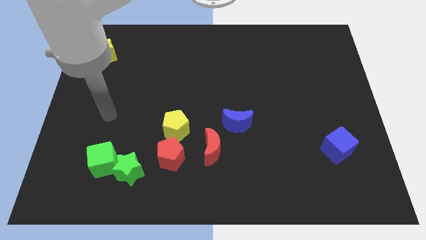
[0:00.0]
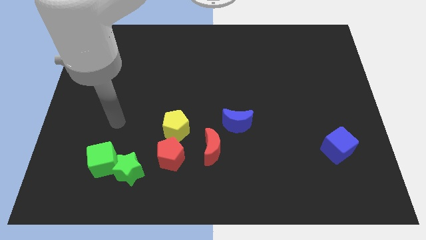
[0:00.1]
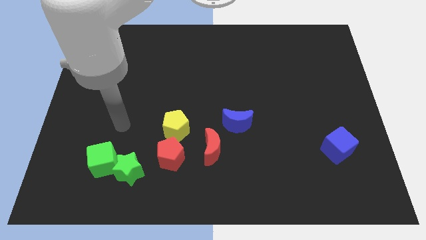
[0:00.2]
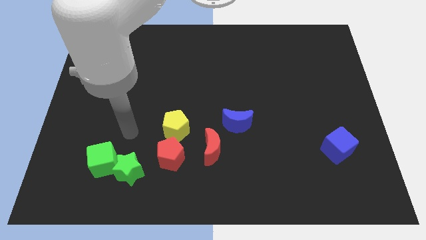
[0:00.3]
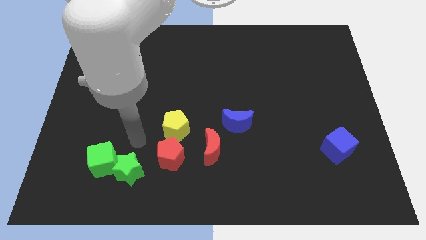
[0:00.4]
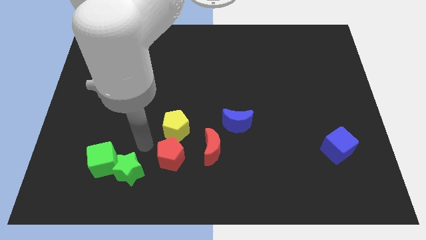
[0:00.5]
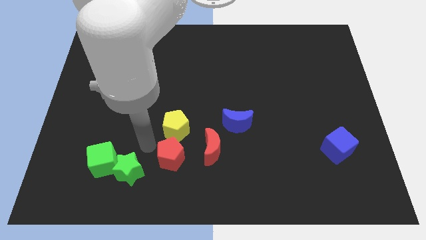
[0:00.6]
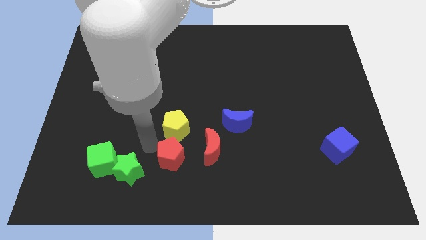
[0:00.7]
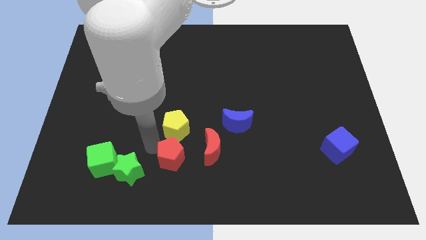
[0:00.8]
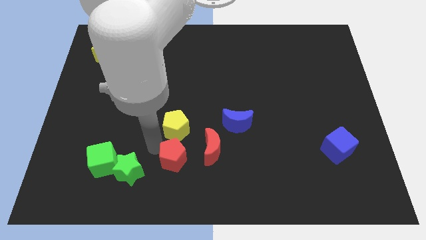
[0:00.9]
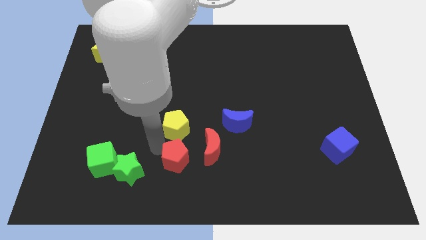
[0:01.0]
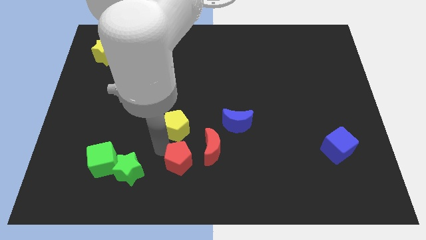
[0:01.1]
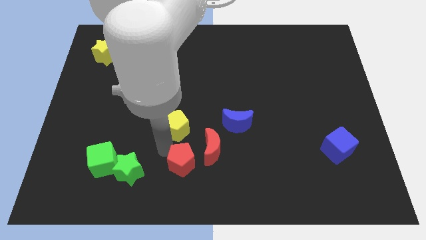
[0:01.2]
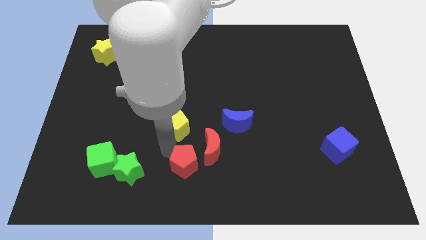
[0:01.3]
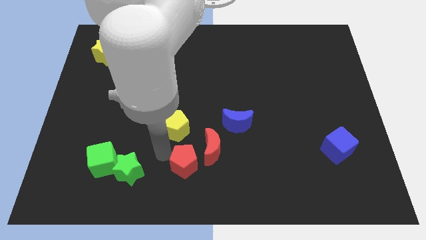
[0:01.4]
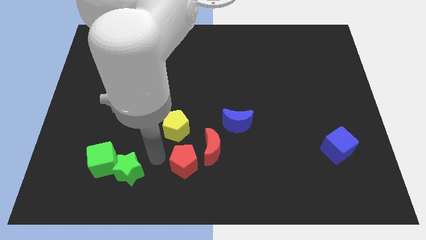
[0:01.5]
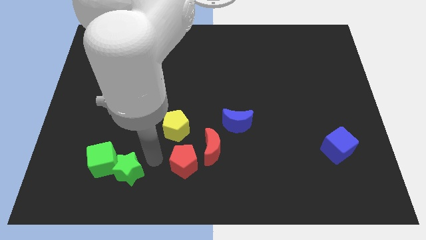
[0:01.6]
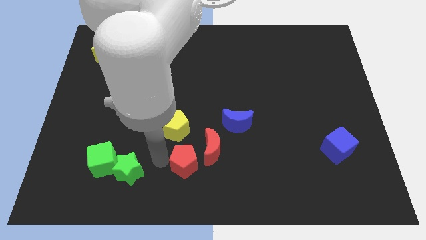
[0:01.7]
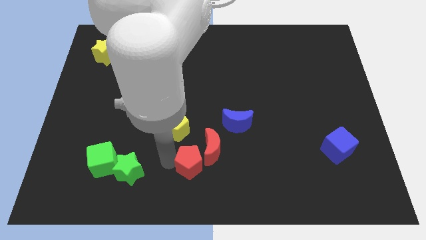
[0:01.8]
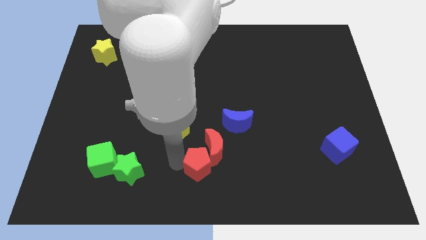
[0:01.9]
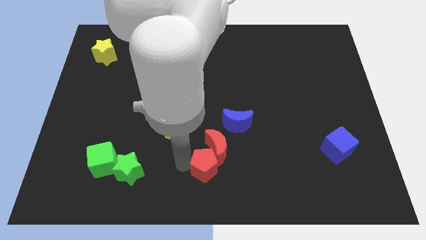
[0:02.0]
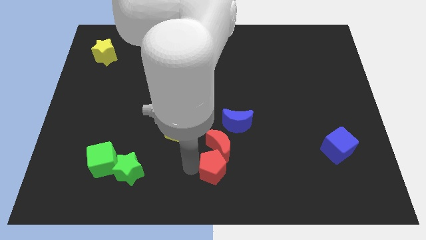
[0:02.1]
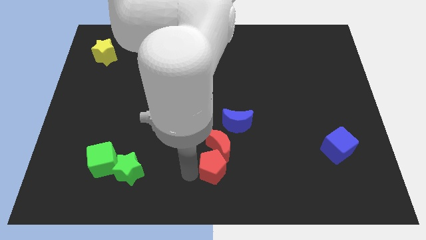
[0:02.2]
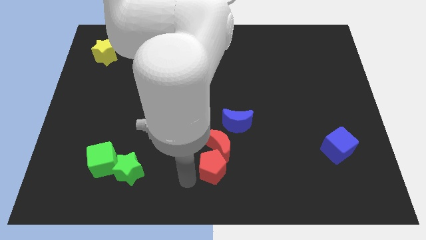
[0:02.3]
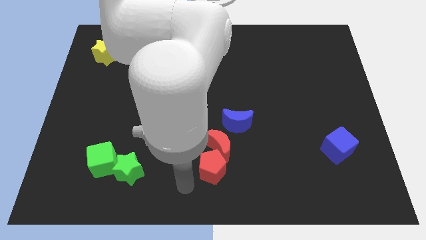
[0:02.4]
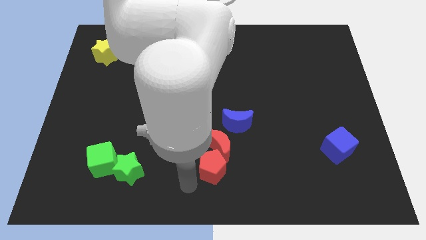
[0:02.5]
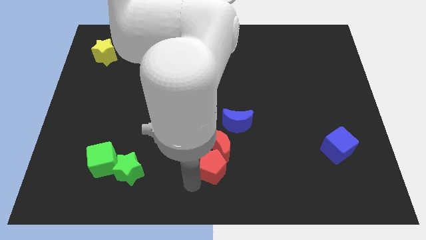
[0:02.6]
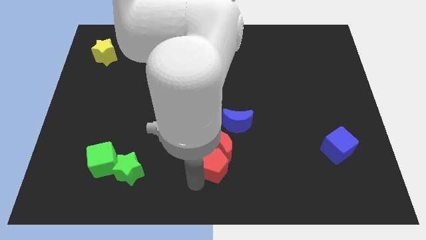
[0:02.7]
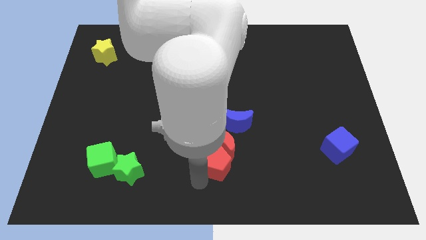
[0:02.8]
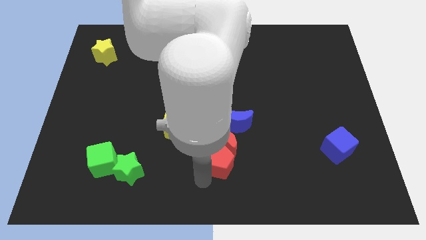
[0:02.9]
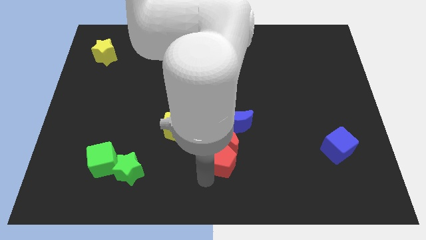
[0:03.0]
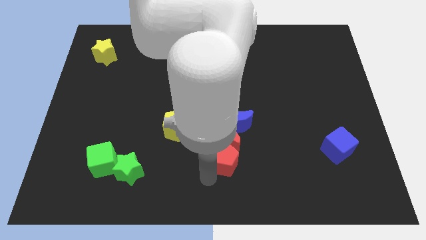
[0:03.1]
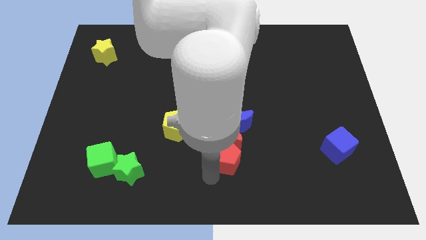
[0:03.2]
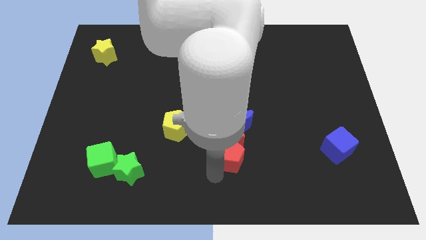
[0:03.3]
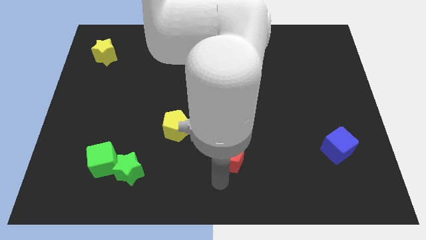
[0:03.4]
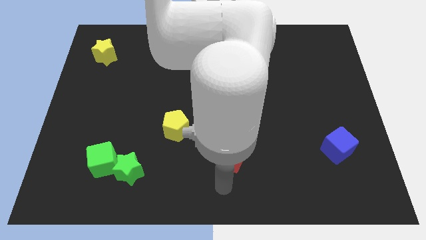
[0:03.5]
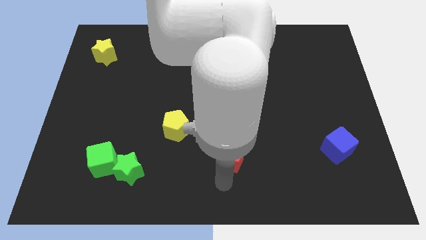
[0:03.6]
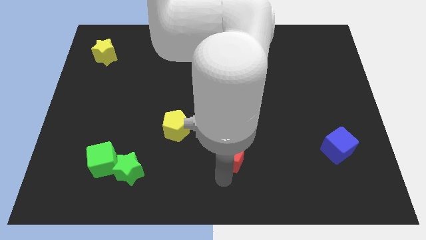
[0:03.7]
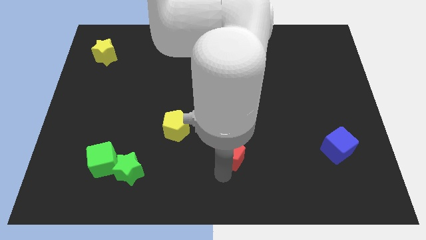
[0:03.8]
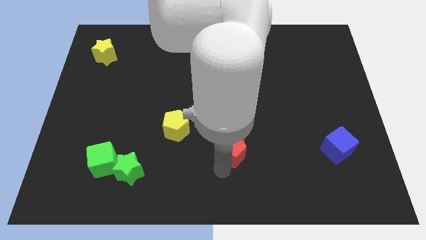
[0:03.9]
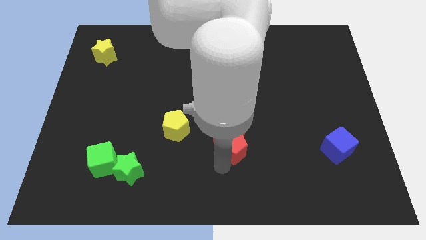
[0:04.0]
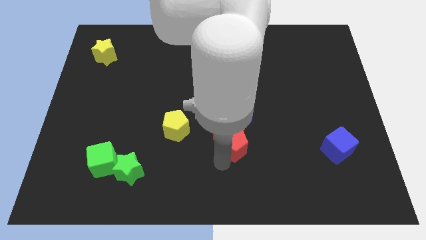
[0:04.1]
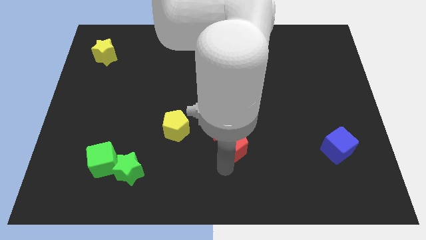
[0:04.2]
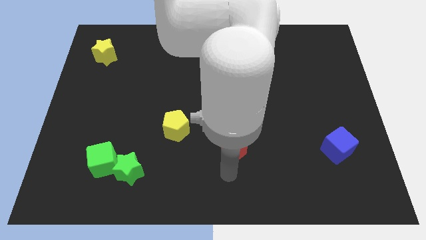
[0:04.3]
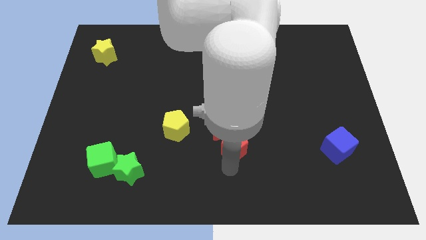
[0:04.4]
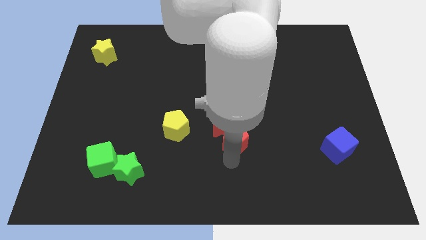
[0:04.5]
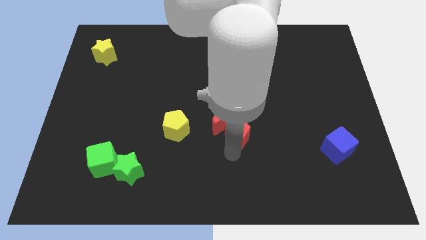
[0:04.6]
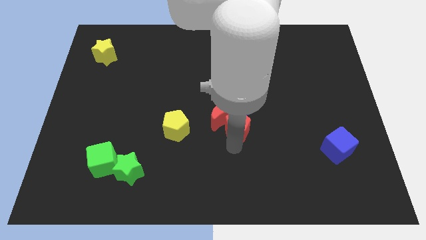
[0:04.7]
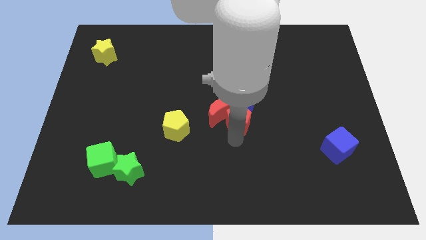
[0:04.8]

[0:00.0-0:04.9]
push the red pentagon towards the blue moon

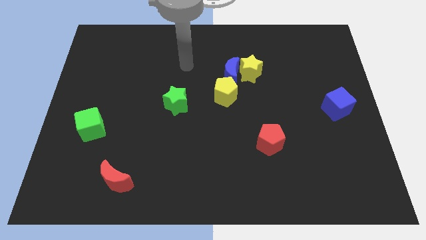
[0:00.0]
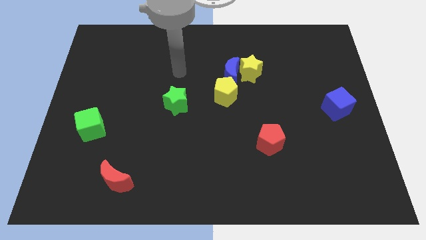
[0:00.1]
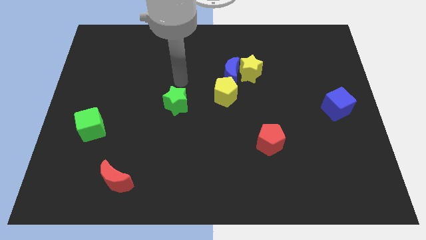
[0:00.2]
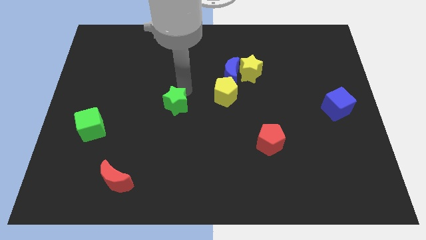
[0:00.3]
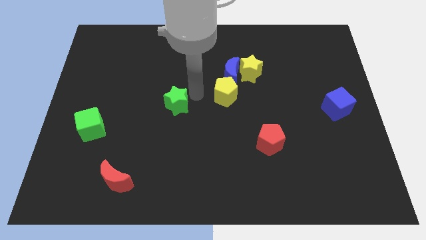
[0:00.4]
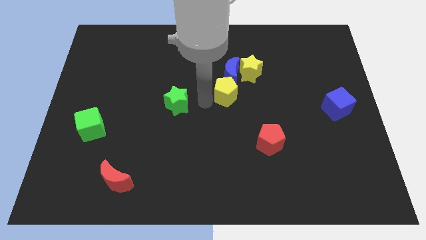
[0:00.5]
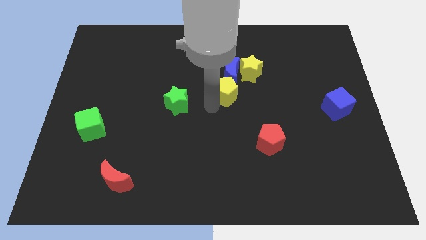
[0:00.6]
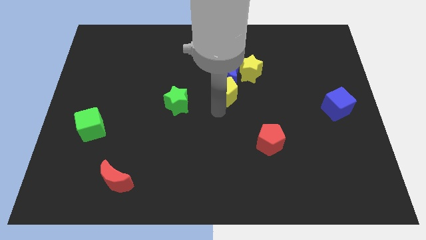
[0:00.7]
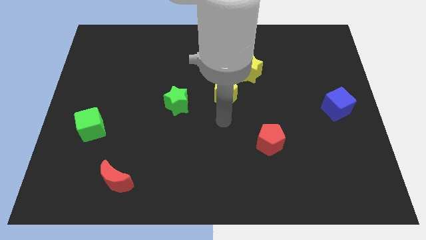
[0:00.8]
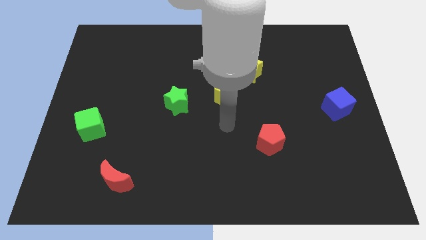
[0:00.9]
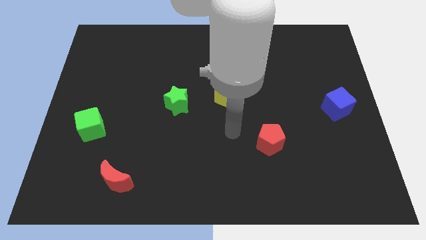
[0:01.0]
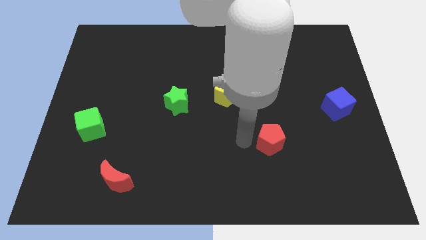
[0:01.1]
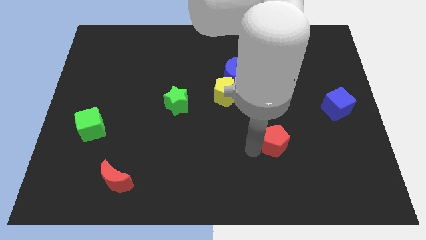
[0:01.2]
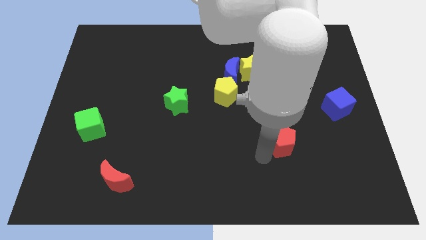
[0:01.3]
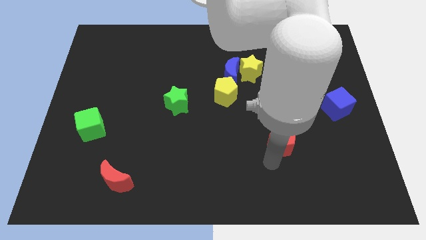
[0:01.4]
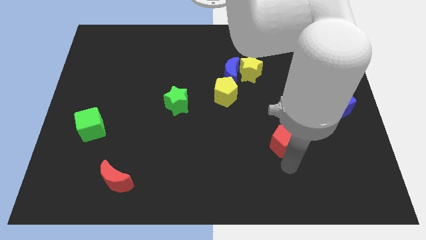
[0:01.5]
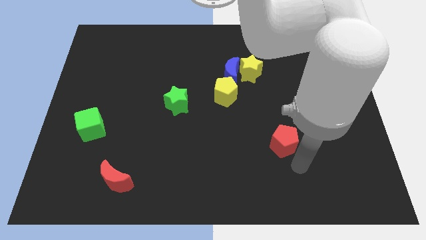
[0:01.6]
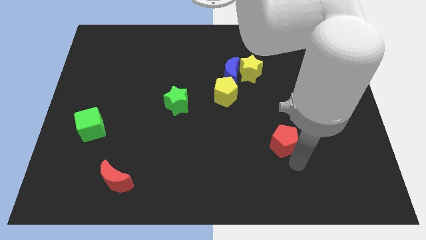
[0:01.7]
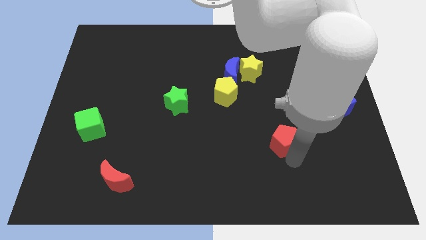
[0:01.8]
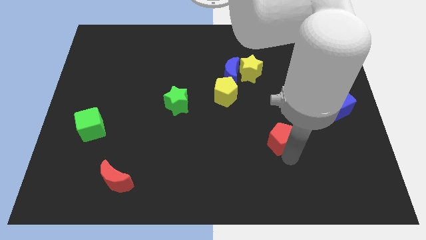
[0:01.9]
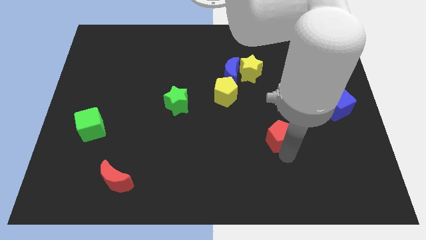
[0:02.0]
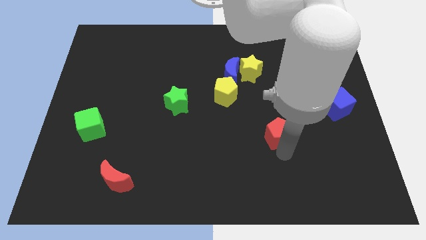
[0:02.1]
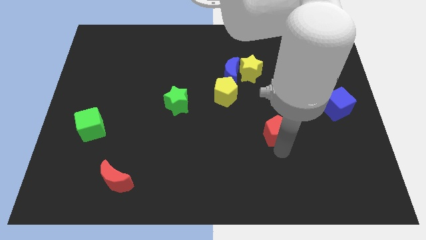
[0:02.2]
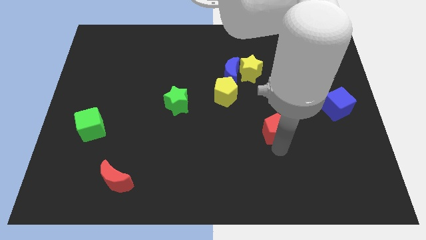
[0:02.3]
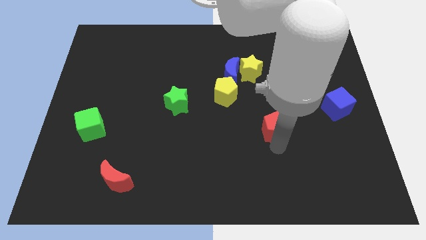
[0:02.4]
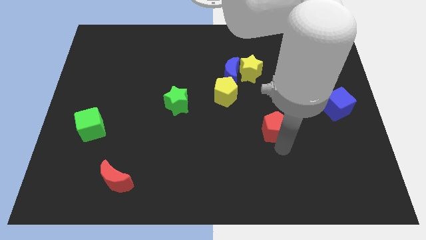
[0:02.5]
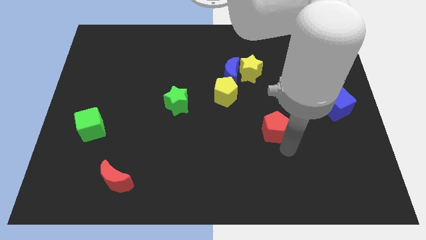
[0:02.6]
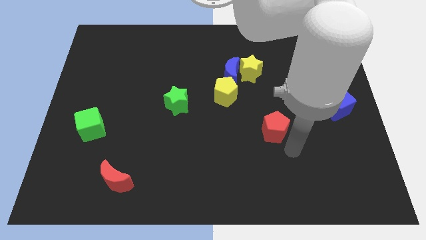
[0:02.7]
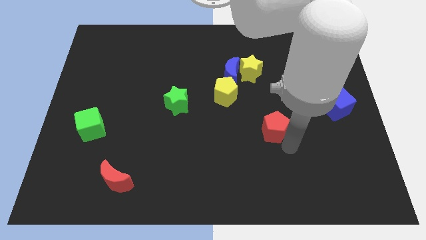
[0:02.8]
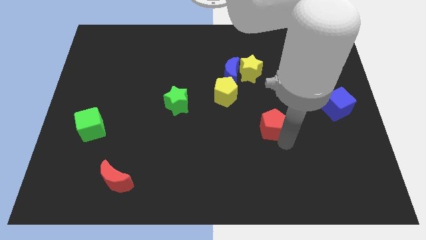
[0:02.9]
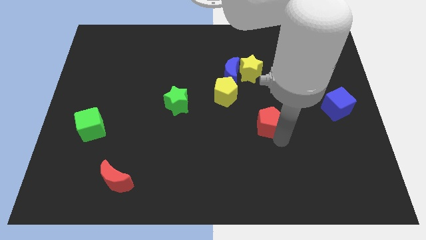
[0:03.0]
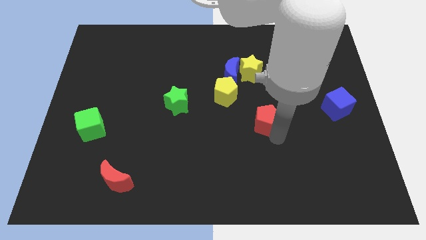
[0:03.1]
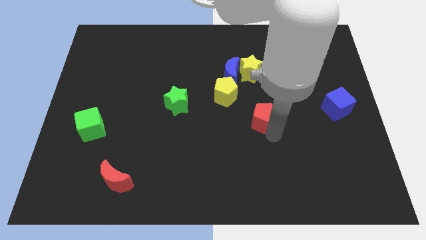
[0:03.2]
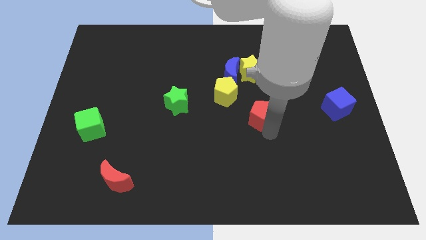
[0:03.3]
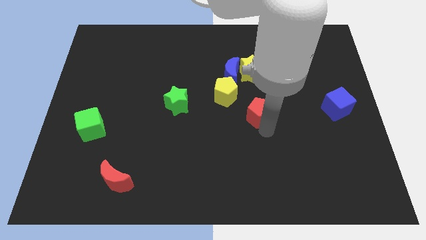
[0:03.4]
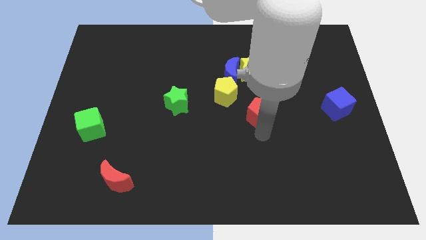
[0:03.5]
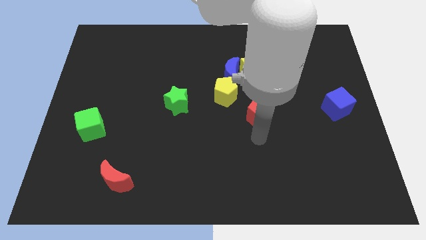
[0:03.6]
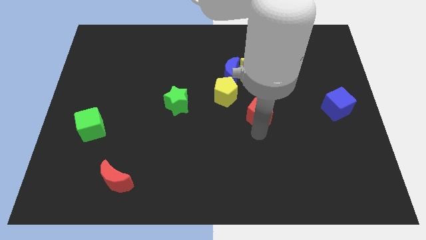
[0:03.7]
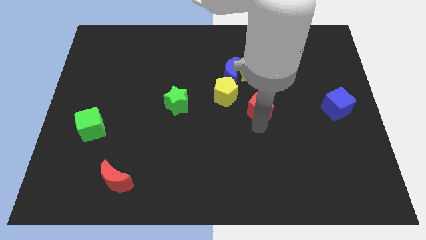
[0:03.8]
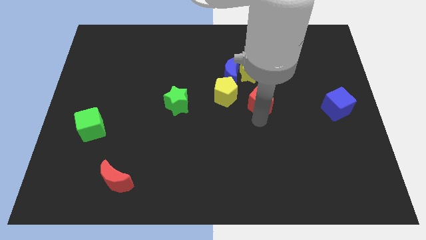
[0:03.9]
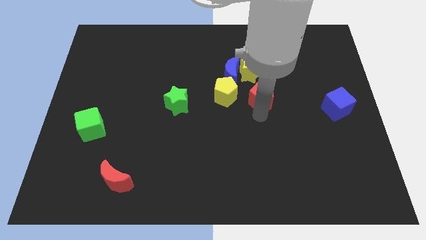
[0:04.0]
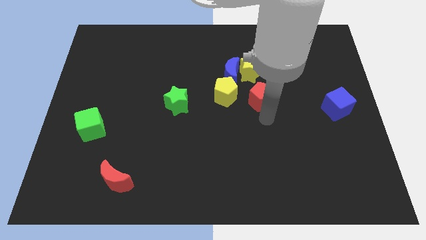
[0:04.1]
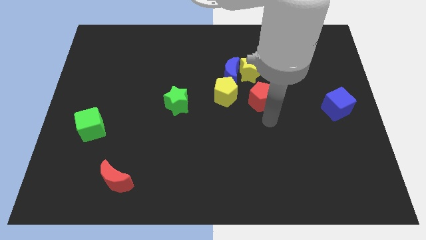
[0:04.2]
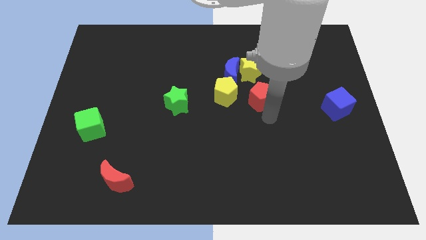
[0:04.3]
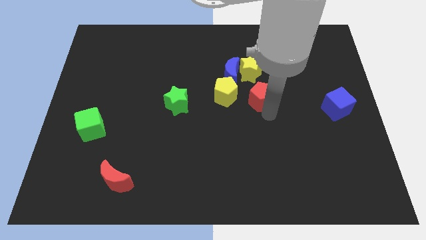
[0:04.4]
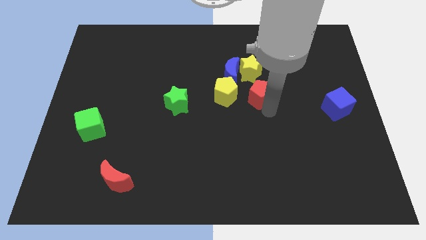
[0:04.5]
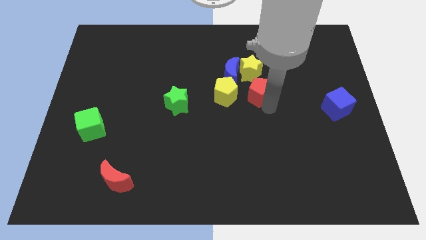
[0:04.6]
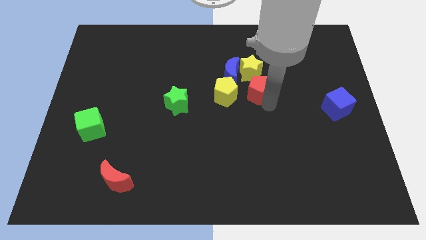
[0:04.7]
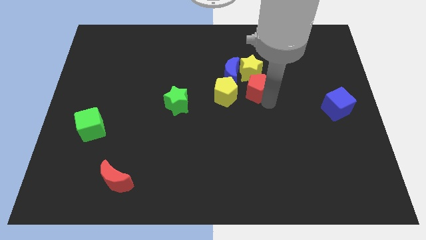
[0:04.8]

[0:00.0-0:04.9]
move the red pentagon close to the yellow star
